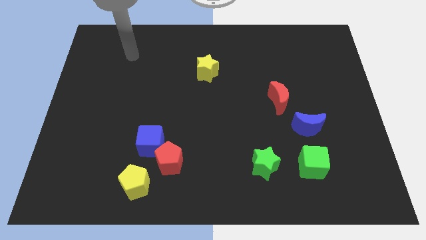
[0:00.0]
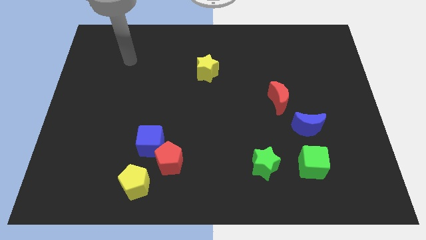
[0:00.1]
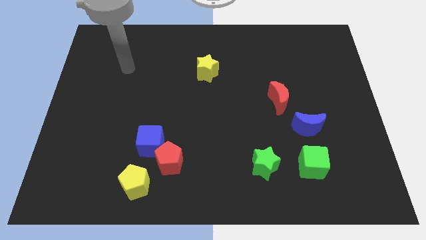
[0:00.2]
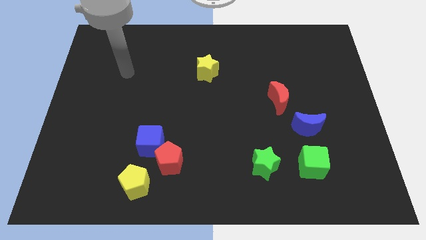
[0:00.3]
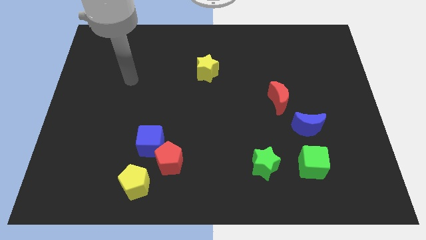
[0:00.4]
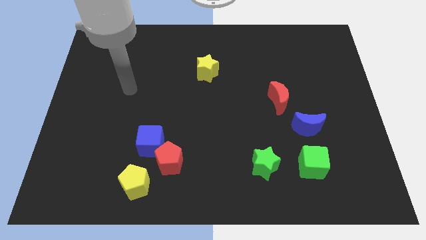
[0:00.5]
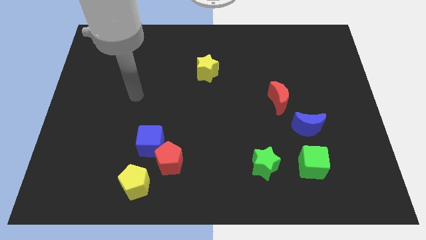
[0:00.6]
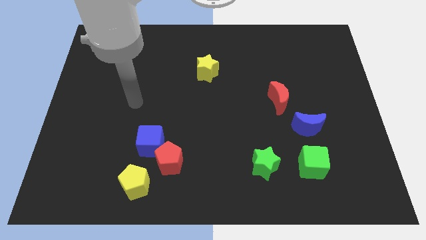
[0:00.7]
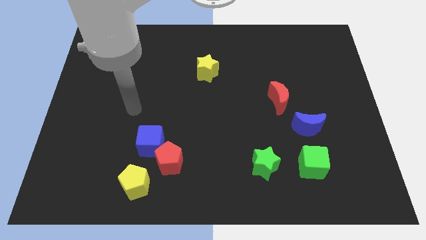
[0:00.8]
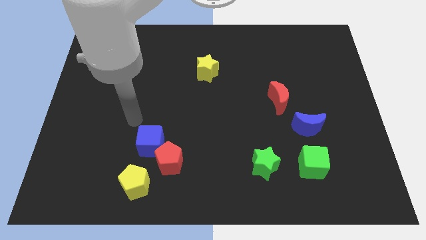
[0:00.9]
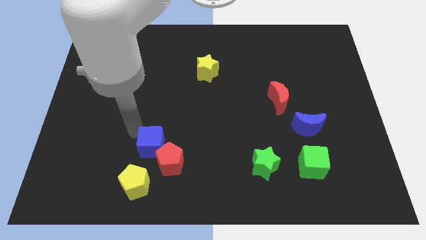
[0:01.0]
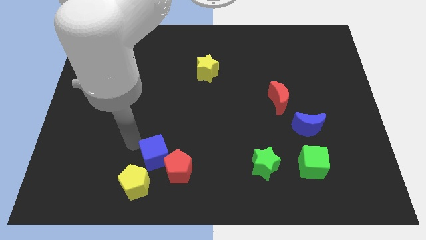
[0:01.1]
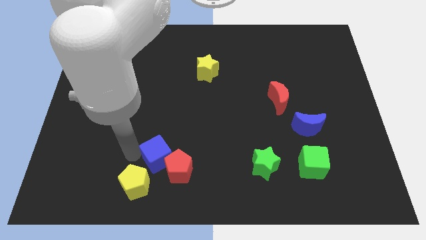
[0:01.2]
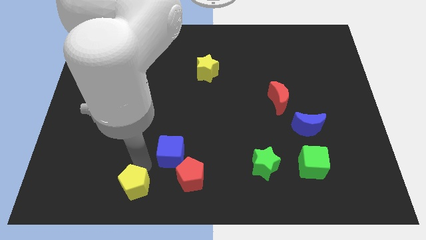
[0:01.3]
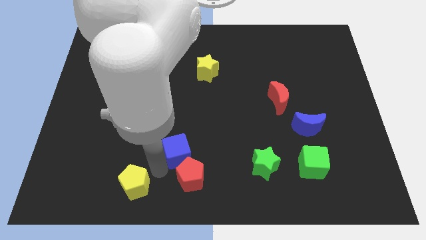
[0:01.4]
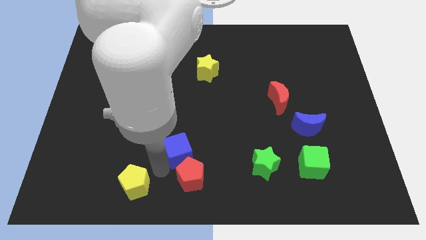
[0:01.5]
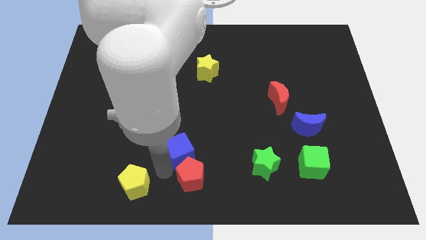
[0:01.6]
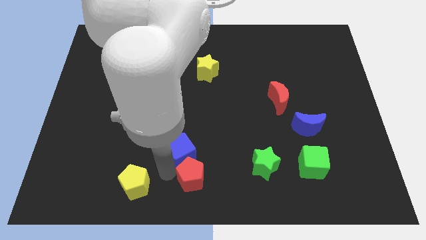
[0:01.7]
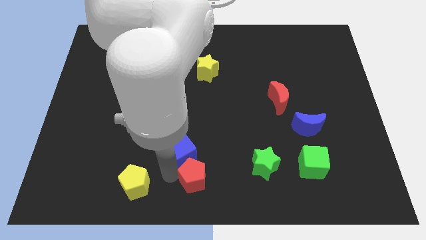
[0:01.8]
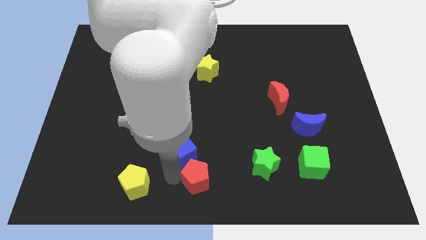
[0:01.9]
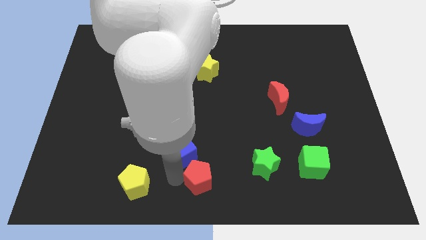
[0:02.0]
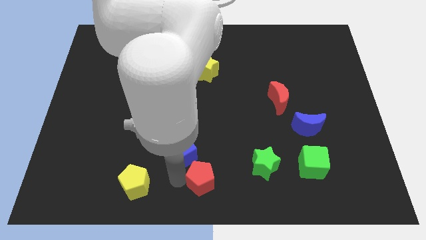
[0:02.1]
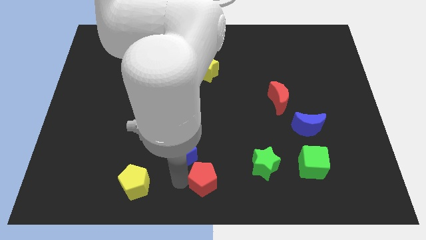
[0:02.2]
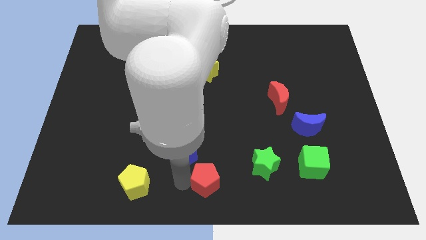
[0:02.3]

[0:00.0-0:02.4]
pull the red pentagon apart from the blue cube and yellow pentagon

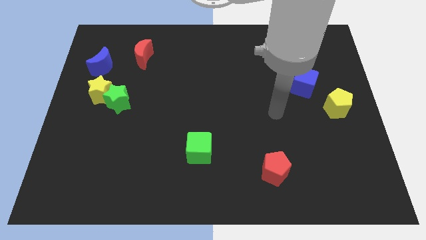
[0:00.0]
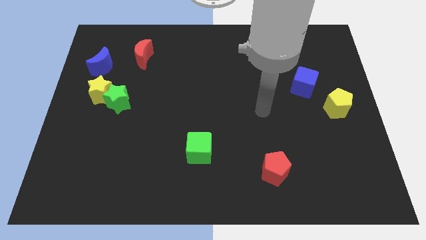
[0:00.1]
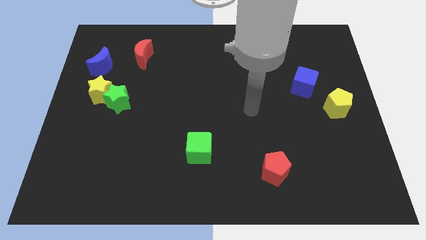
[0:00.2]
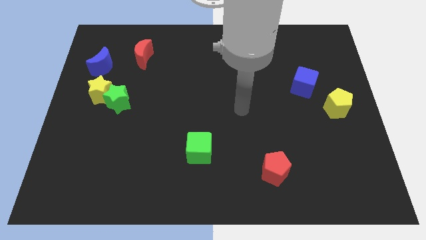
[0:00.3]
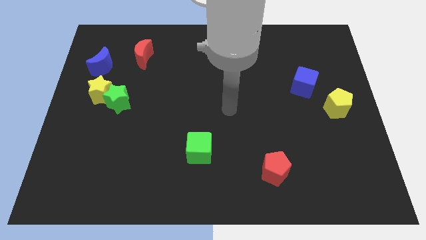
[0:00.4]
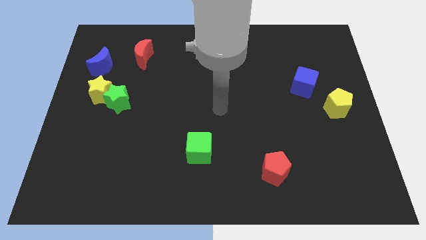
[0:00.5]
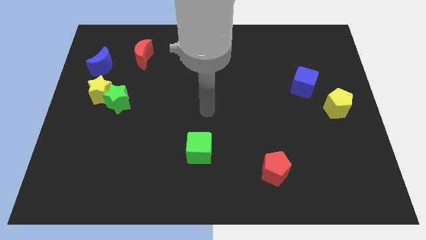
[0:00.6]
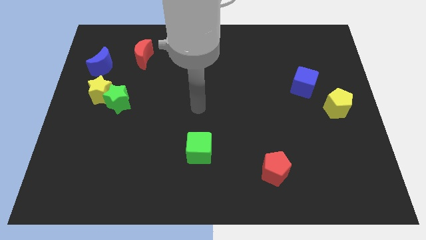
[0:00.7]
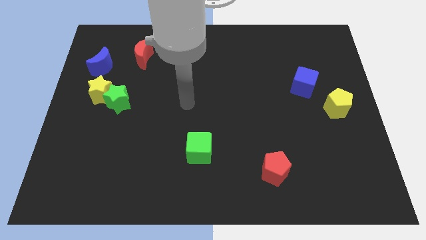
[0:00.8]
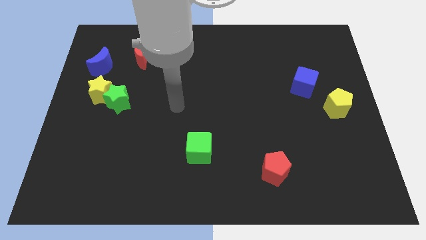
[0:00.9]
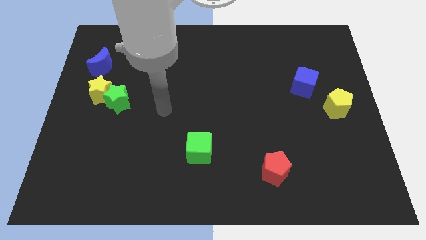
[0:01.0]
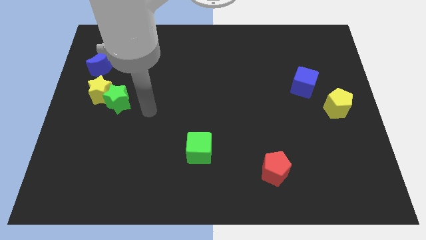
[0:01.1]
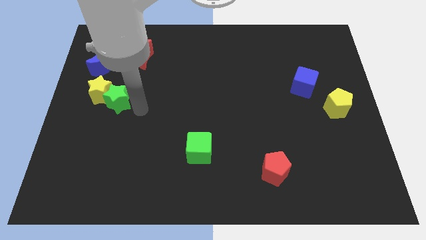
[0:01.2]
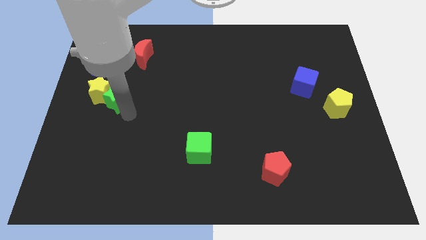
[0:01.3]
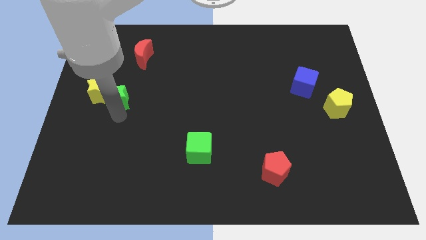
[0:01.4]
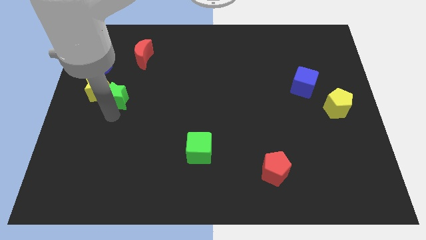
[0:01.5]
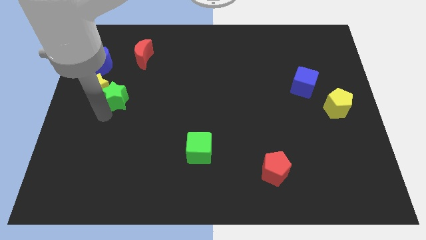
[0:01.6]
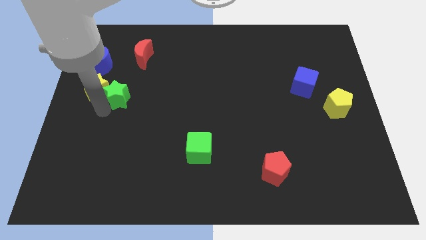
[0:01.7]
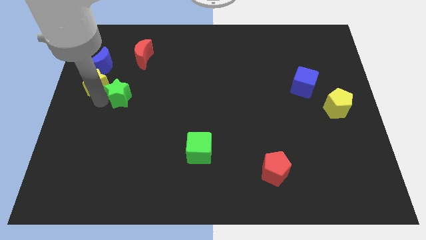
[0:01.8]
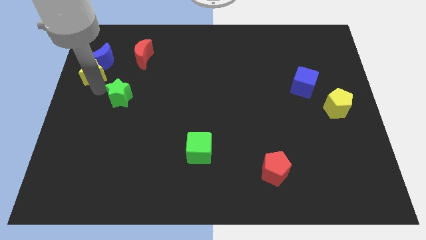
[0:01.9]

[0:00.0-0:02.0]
separate the green star from the yellow star

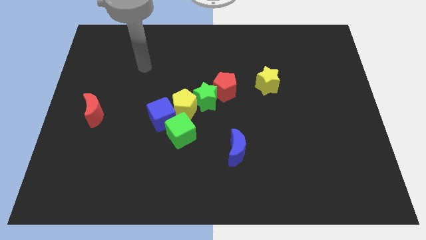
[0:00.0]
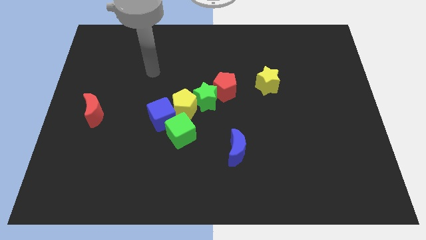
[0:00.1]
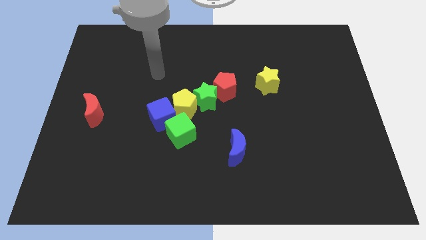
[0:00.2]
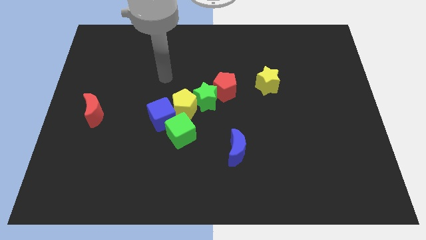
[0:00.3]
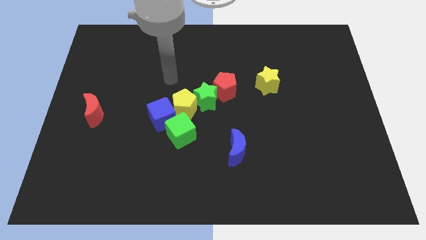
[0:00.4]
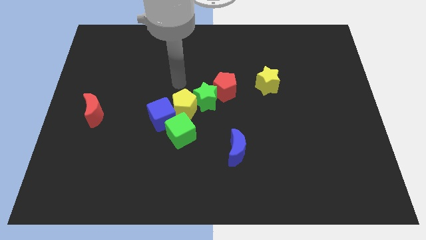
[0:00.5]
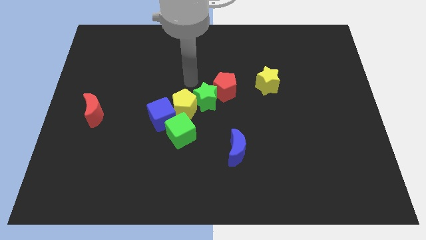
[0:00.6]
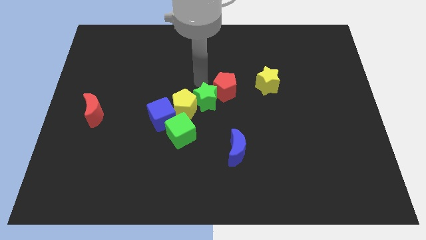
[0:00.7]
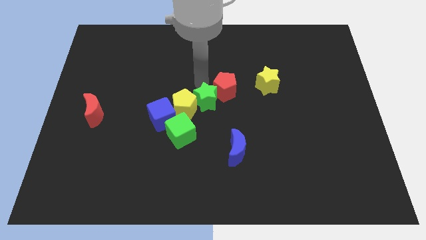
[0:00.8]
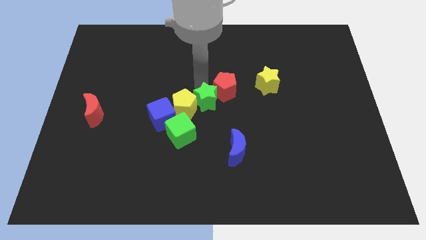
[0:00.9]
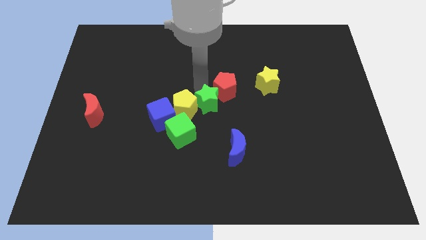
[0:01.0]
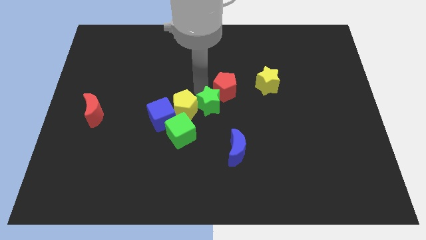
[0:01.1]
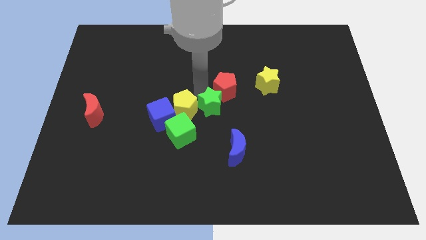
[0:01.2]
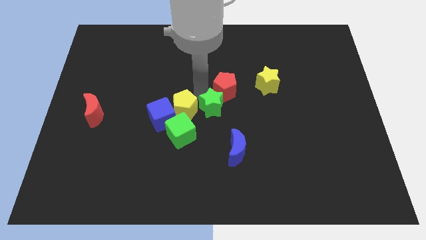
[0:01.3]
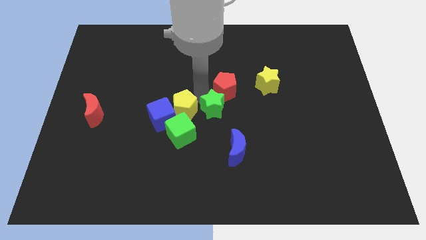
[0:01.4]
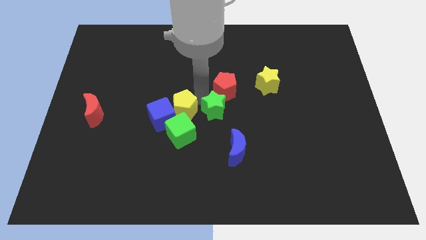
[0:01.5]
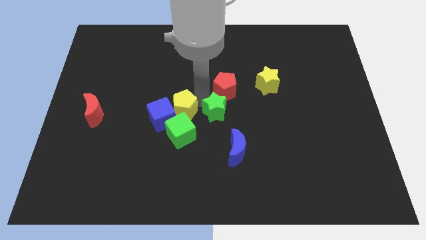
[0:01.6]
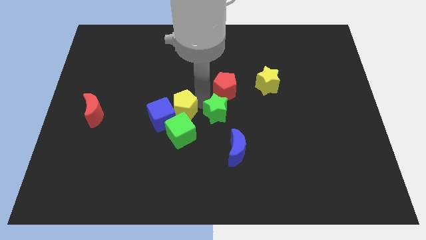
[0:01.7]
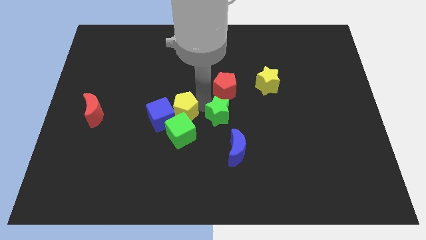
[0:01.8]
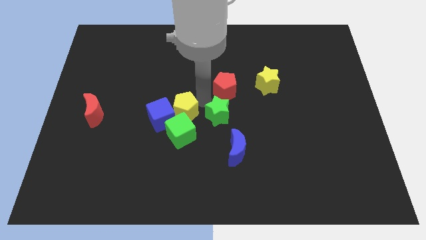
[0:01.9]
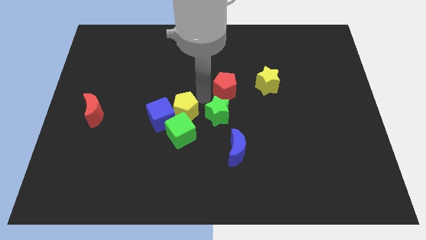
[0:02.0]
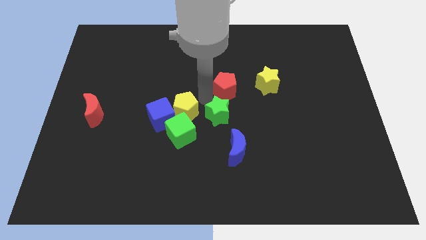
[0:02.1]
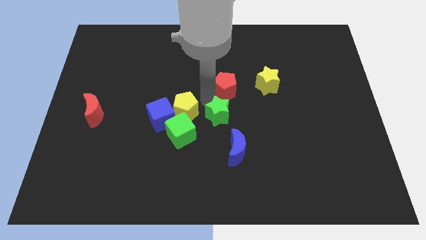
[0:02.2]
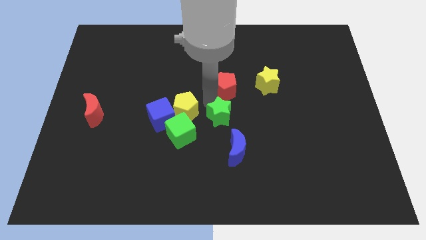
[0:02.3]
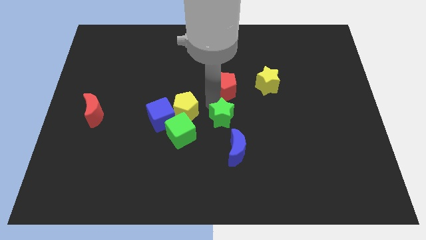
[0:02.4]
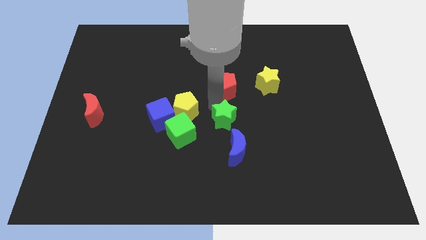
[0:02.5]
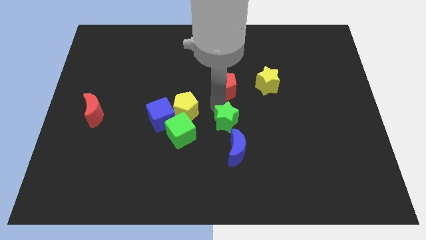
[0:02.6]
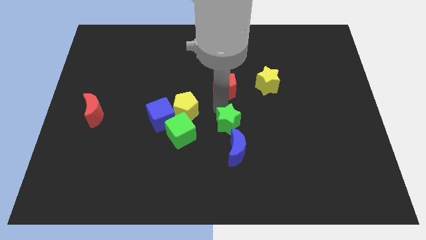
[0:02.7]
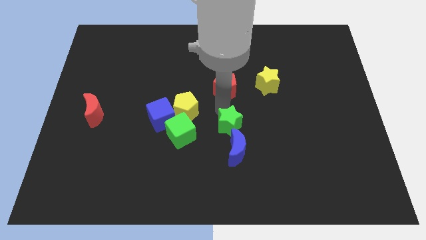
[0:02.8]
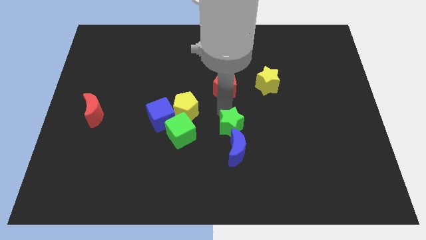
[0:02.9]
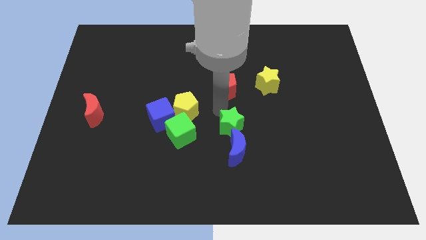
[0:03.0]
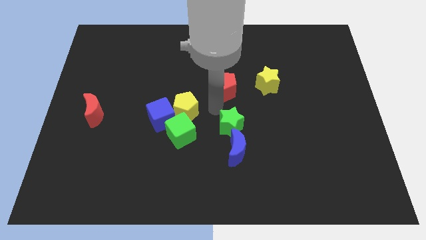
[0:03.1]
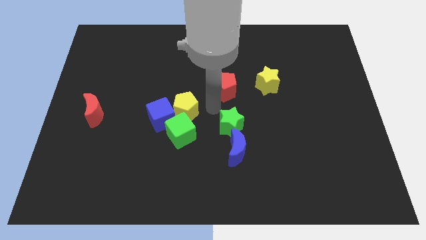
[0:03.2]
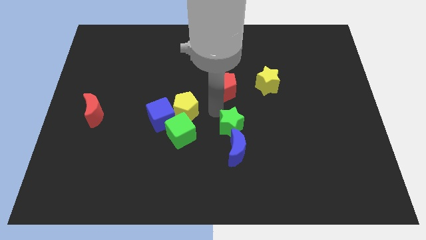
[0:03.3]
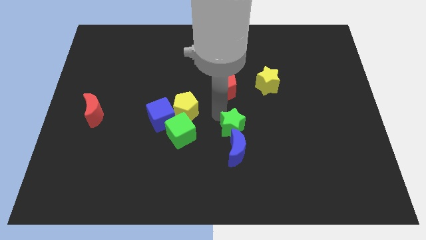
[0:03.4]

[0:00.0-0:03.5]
pull the green star apart from the yellow pentagon and red pentagon

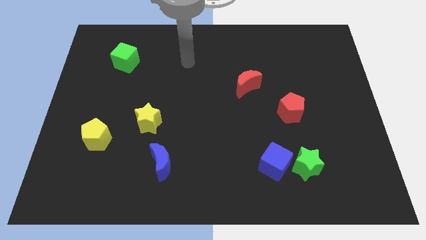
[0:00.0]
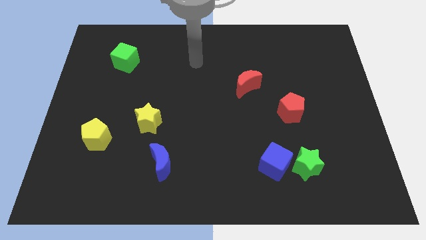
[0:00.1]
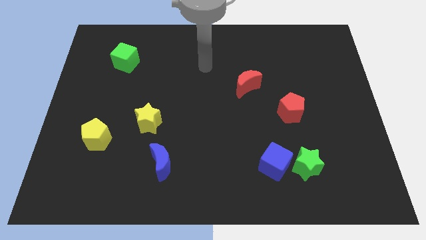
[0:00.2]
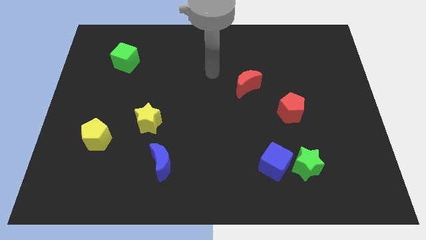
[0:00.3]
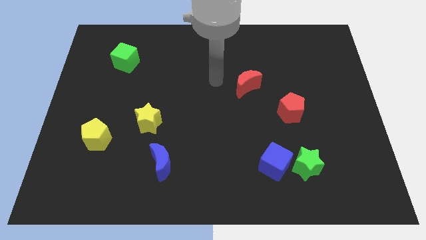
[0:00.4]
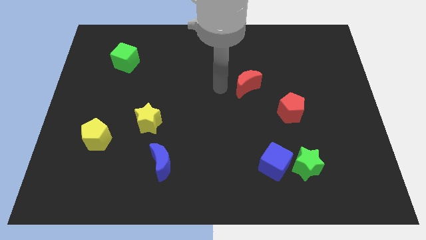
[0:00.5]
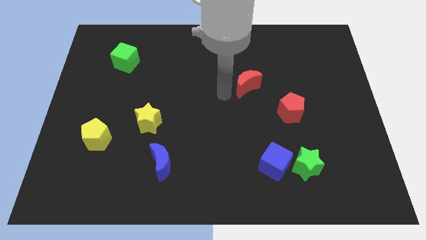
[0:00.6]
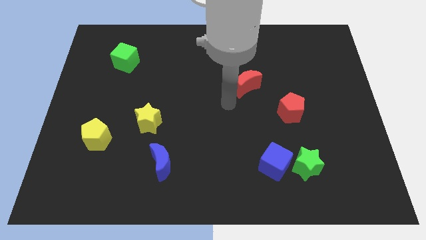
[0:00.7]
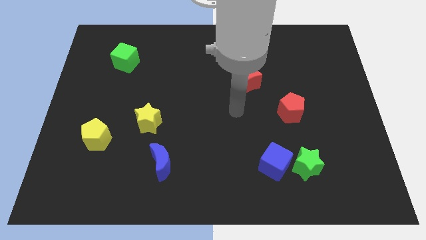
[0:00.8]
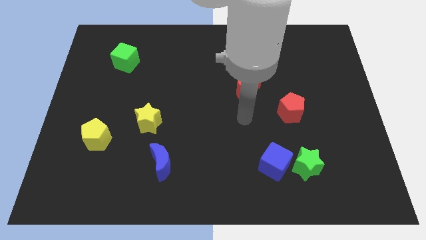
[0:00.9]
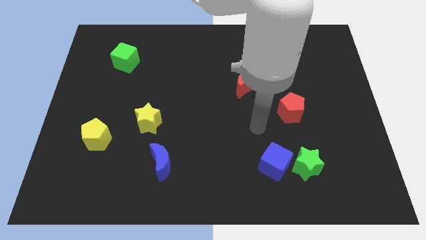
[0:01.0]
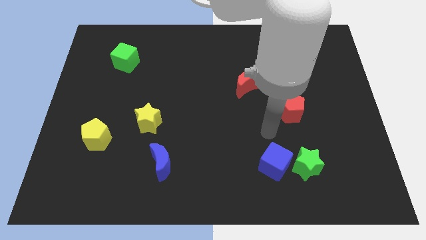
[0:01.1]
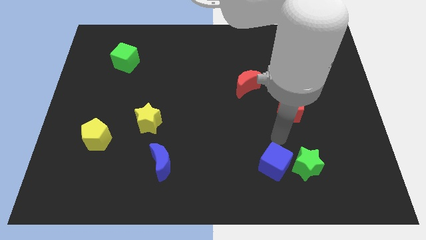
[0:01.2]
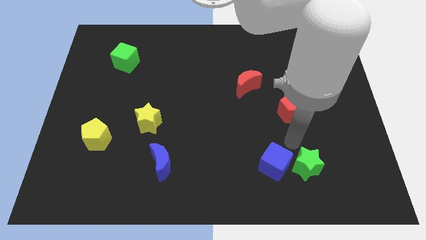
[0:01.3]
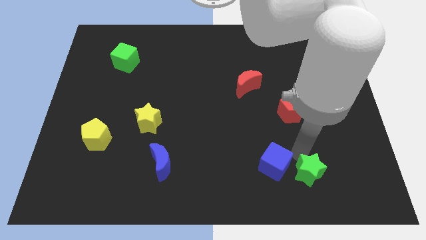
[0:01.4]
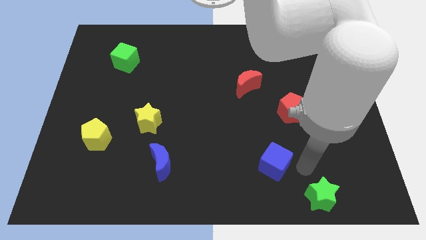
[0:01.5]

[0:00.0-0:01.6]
separate the blue cube from the green star
